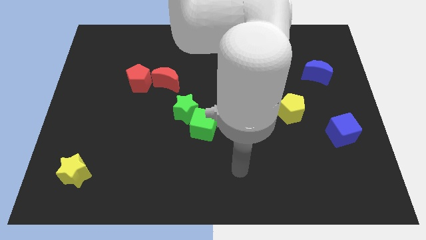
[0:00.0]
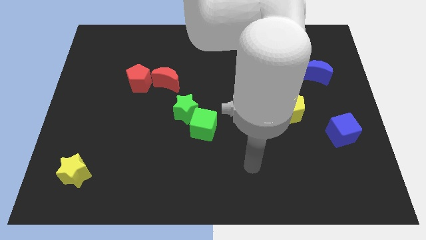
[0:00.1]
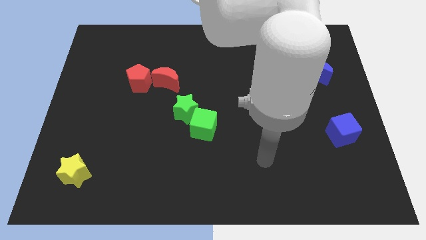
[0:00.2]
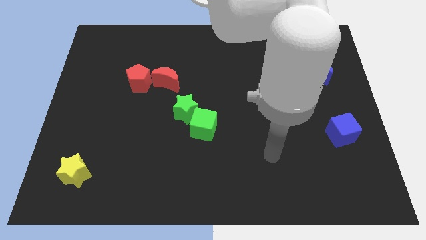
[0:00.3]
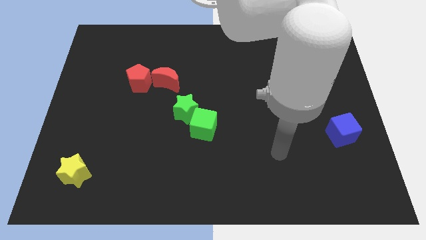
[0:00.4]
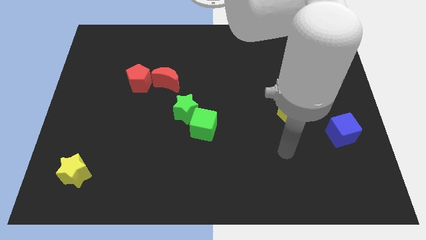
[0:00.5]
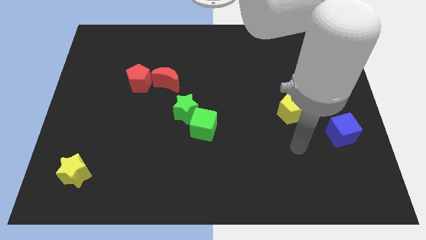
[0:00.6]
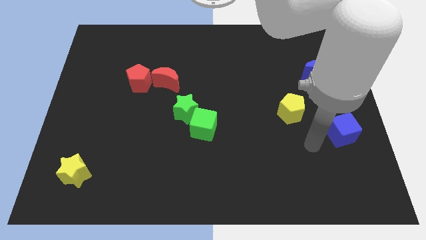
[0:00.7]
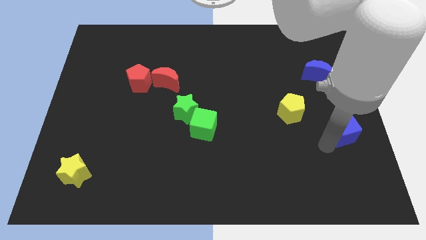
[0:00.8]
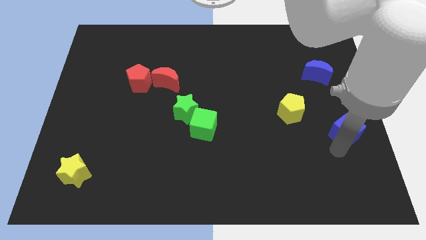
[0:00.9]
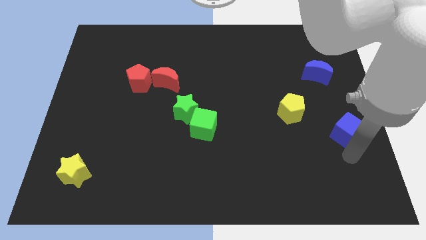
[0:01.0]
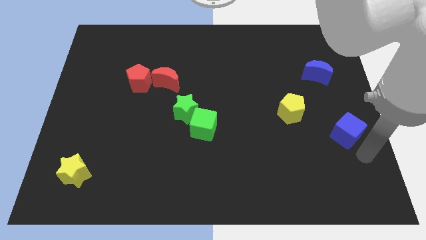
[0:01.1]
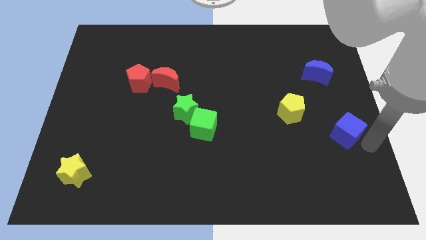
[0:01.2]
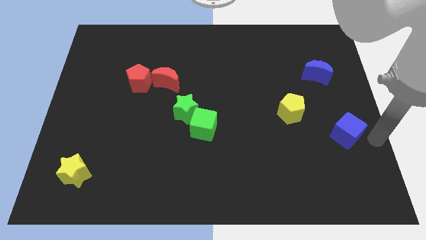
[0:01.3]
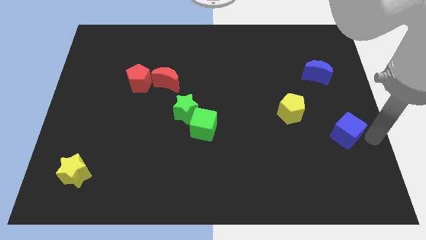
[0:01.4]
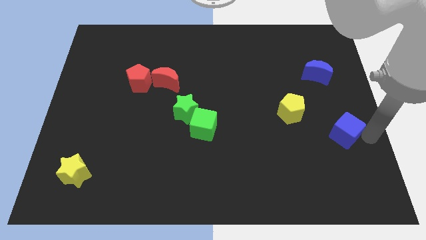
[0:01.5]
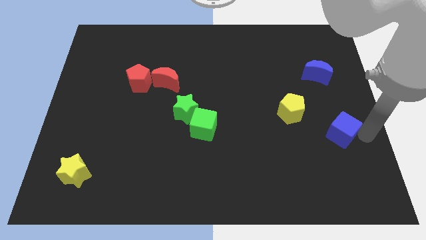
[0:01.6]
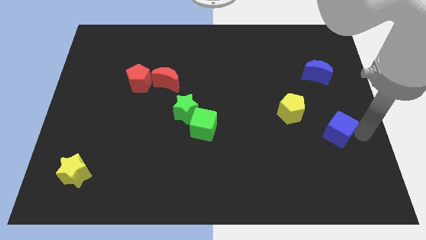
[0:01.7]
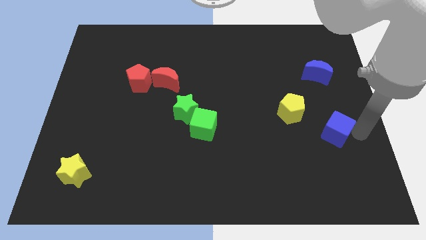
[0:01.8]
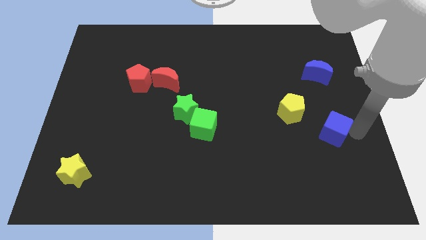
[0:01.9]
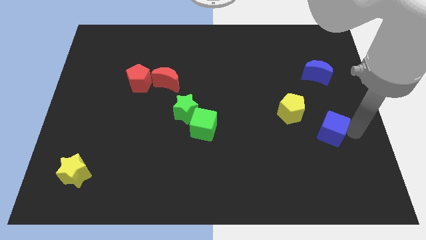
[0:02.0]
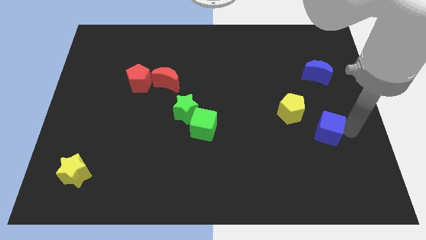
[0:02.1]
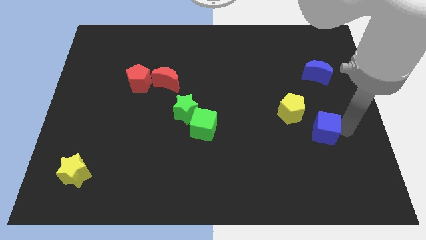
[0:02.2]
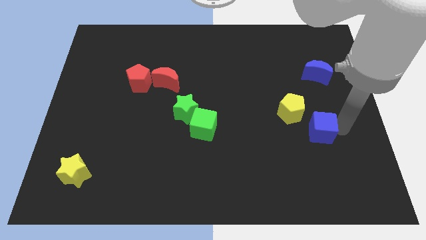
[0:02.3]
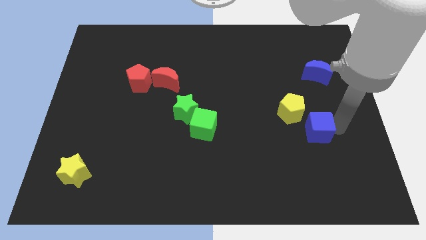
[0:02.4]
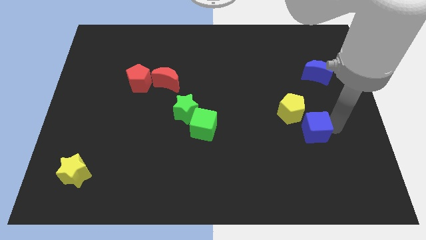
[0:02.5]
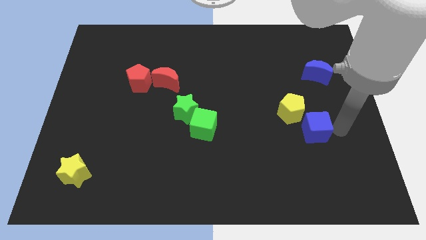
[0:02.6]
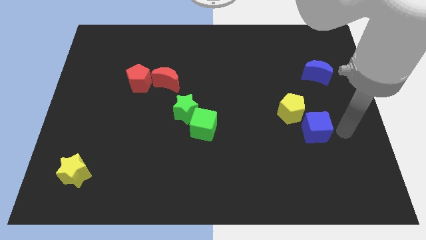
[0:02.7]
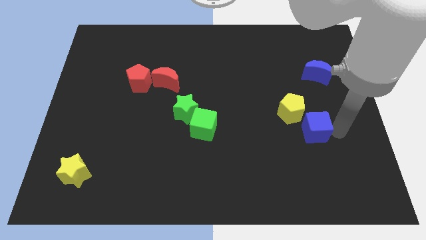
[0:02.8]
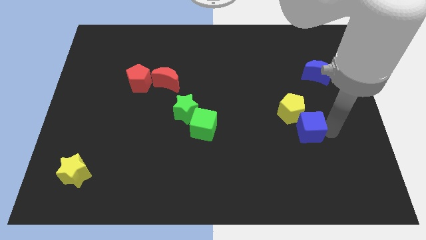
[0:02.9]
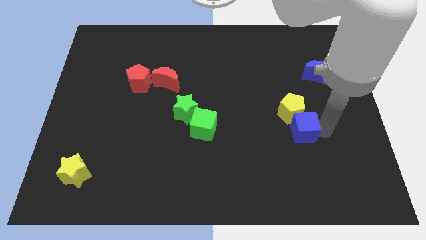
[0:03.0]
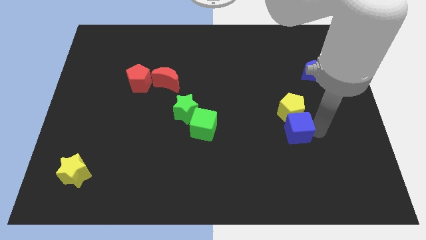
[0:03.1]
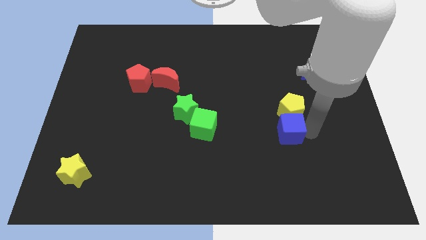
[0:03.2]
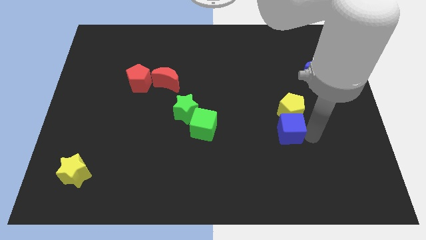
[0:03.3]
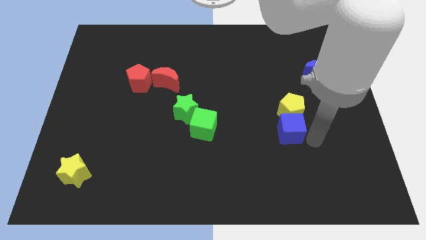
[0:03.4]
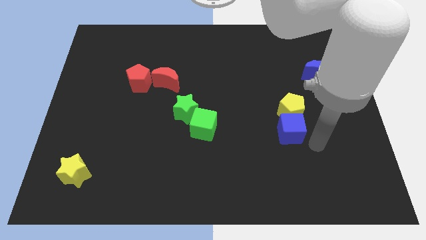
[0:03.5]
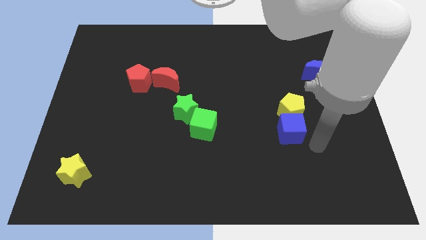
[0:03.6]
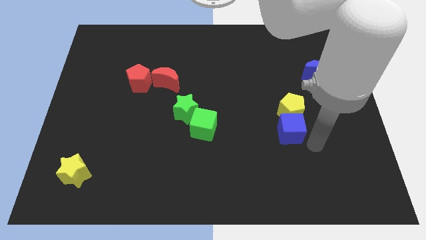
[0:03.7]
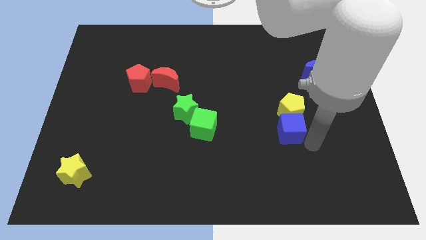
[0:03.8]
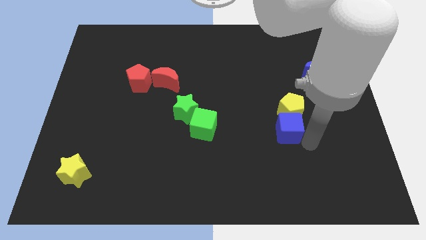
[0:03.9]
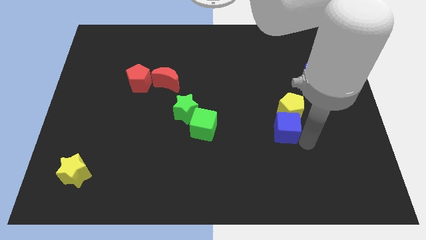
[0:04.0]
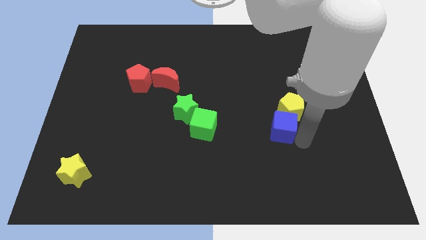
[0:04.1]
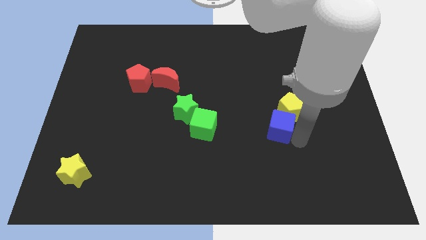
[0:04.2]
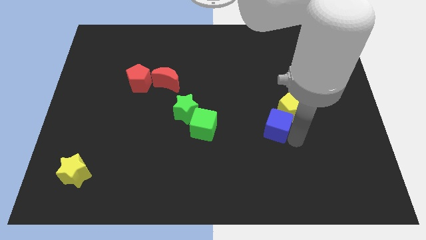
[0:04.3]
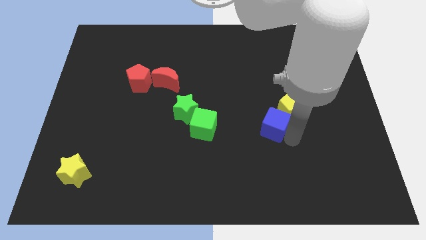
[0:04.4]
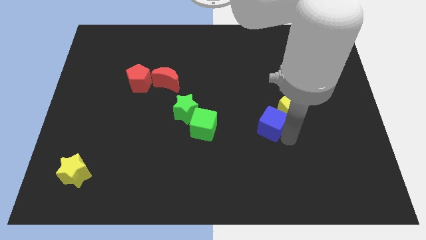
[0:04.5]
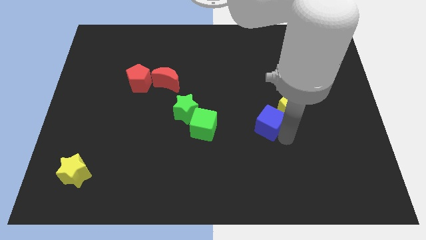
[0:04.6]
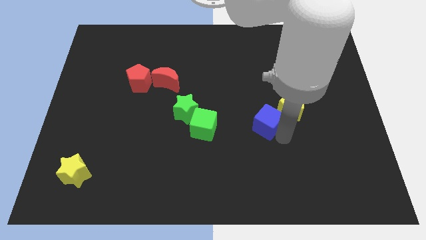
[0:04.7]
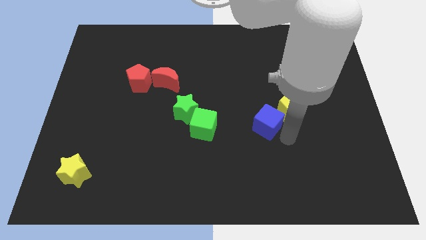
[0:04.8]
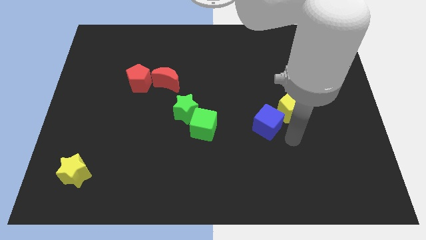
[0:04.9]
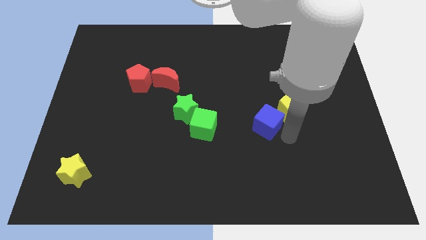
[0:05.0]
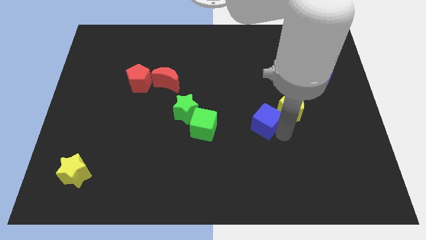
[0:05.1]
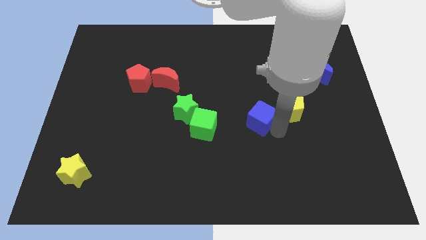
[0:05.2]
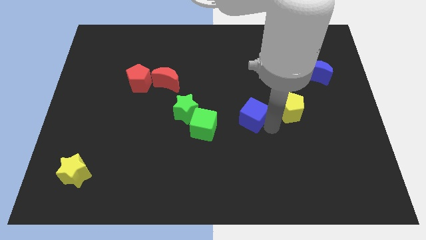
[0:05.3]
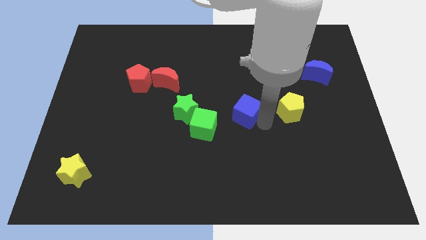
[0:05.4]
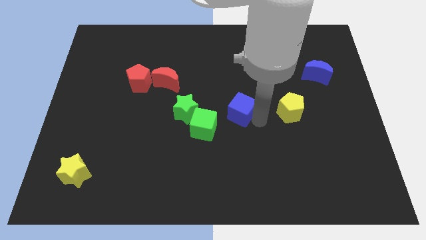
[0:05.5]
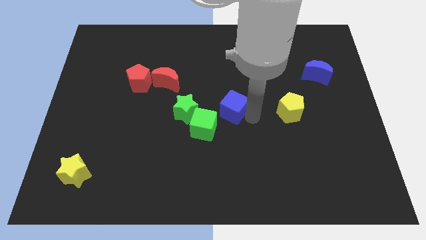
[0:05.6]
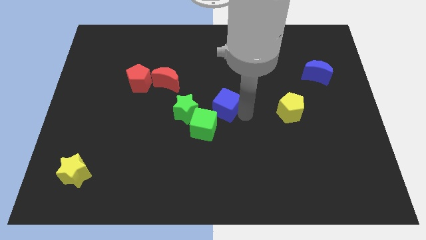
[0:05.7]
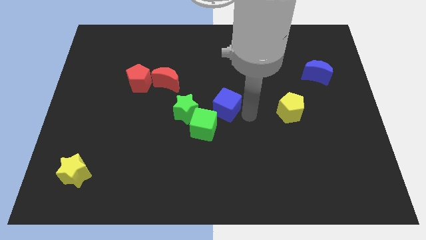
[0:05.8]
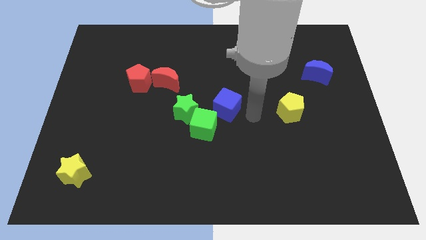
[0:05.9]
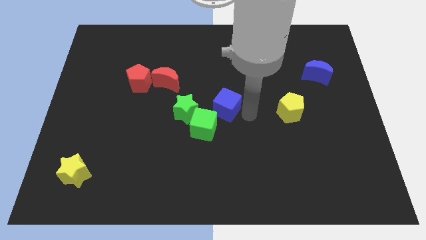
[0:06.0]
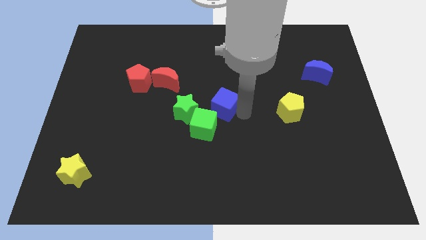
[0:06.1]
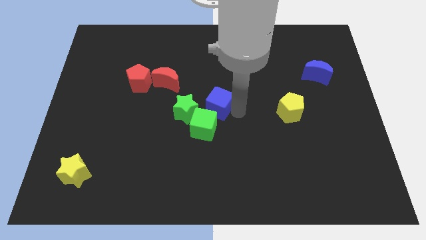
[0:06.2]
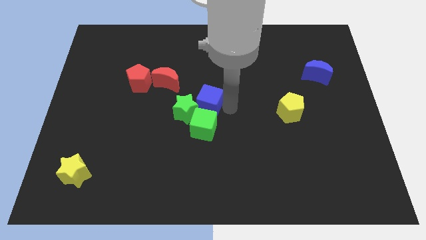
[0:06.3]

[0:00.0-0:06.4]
move the blue cube close to the green star
